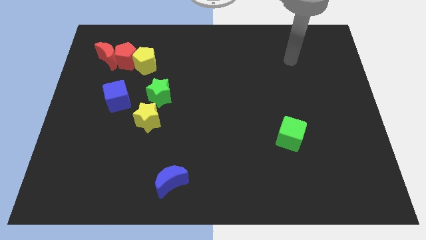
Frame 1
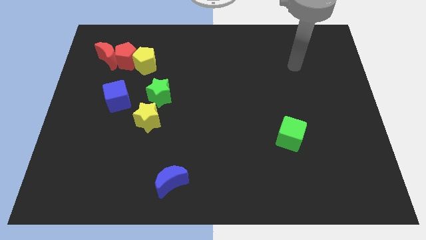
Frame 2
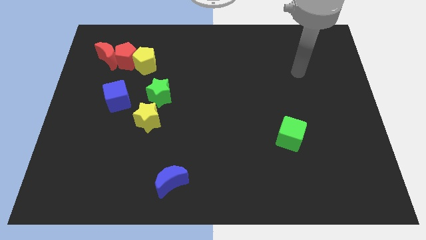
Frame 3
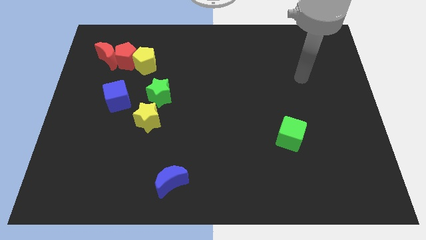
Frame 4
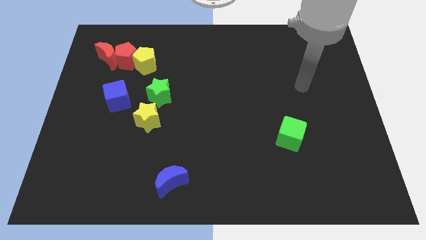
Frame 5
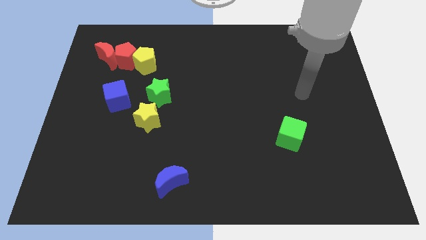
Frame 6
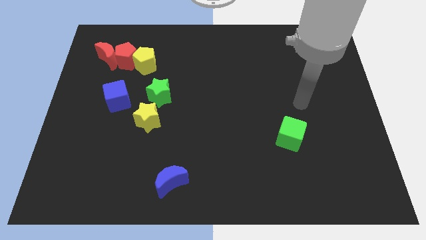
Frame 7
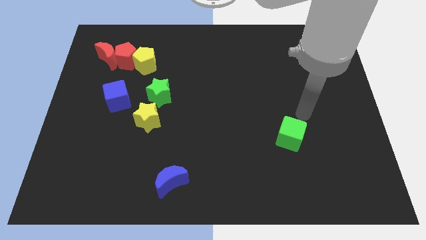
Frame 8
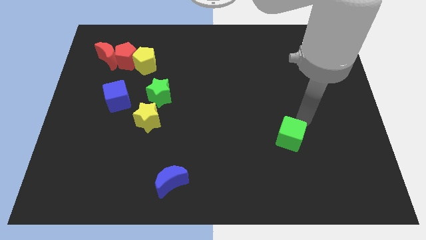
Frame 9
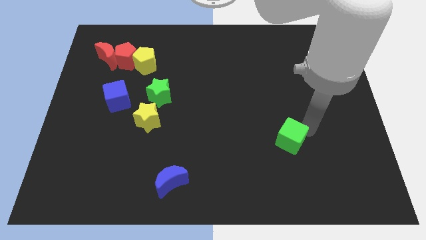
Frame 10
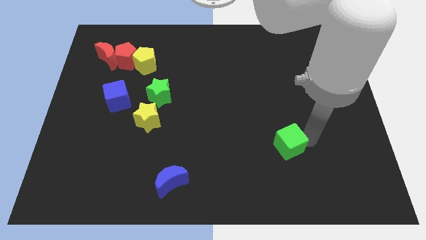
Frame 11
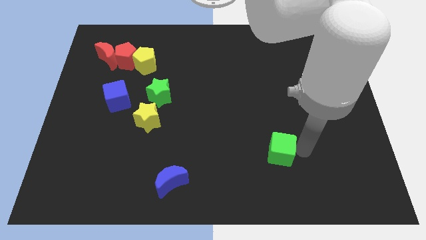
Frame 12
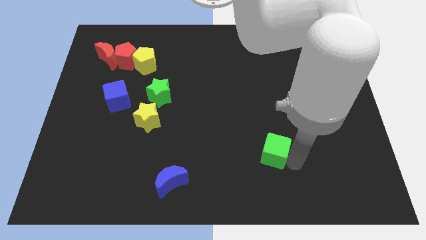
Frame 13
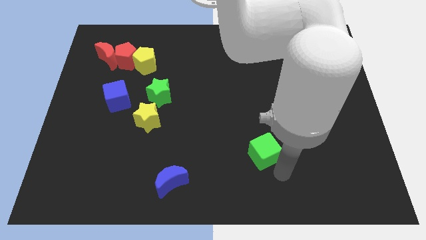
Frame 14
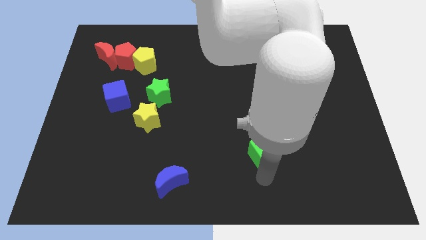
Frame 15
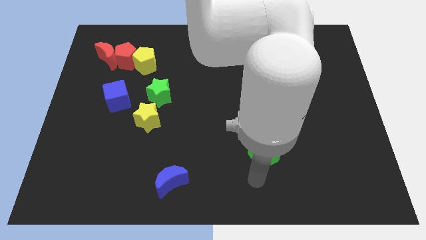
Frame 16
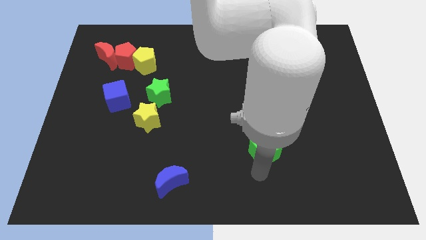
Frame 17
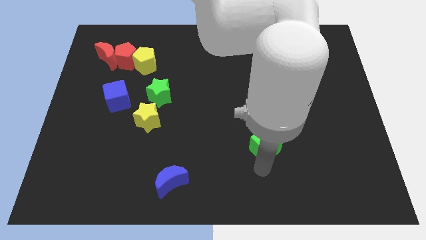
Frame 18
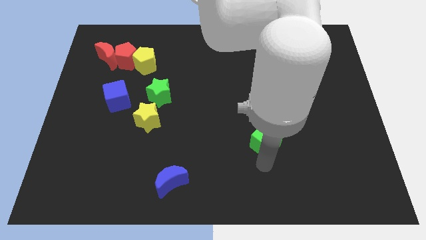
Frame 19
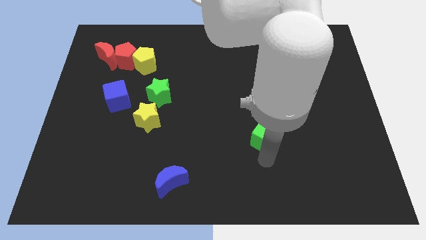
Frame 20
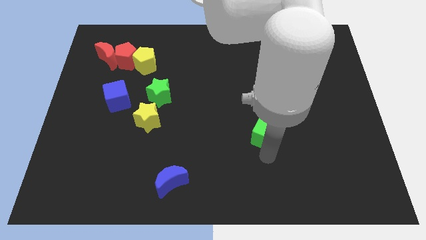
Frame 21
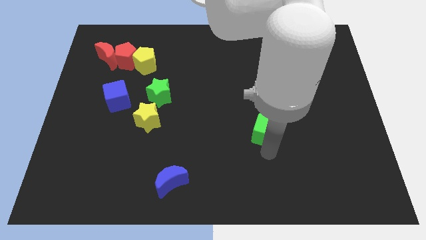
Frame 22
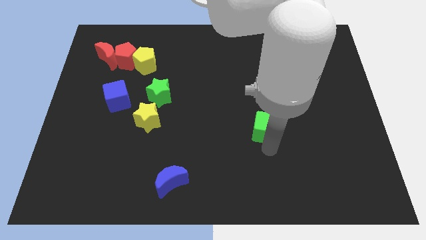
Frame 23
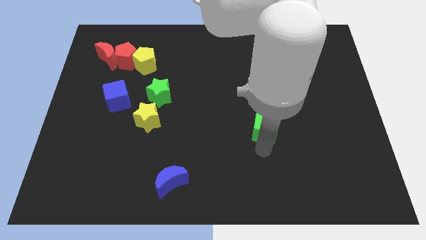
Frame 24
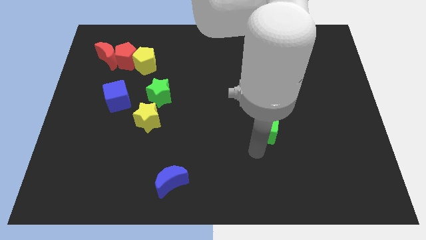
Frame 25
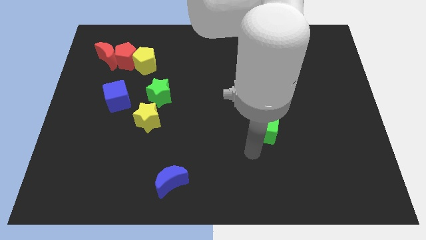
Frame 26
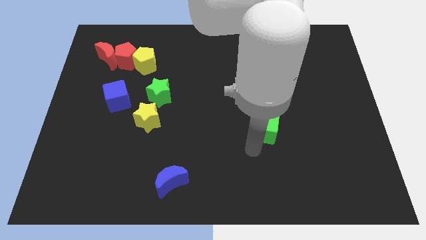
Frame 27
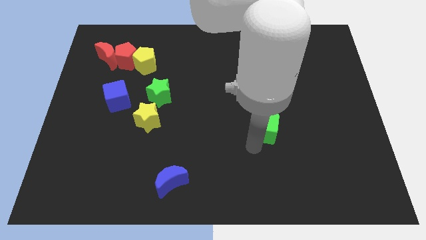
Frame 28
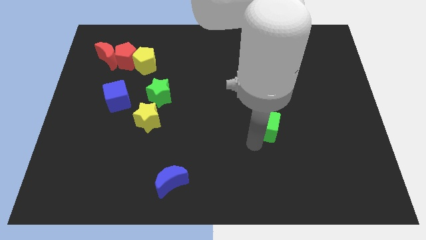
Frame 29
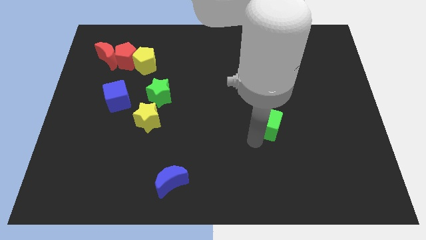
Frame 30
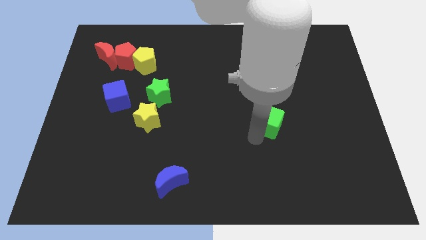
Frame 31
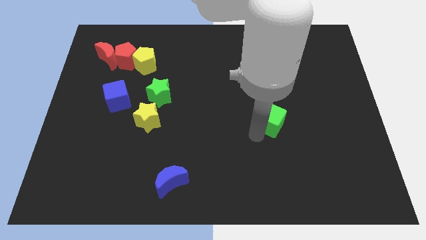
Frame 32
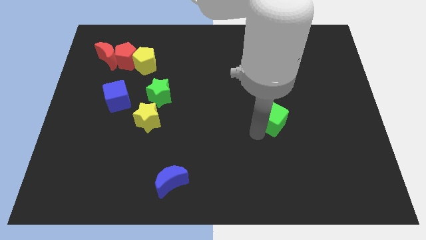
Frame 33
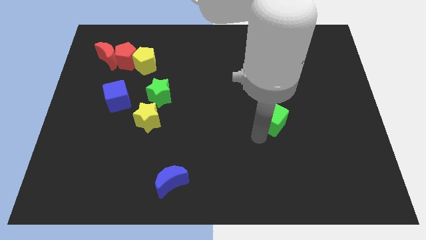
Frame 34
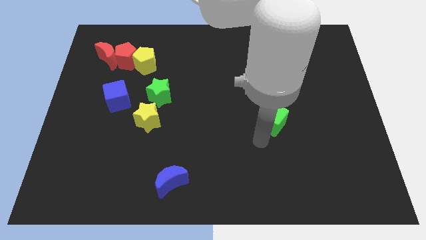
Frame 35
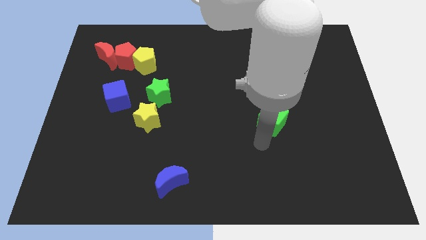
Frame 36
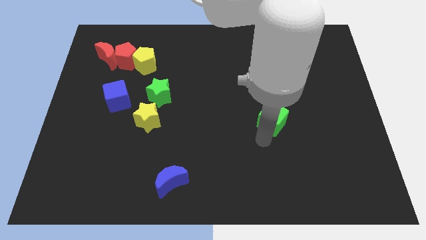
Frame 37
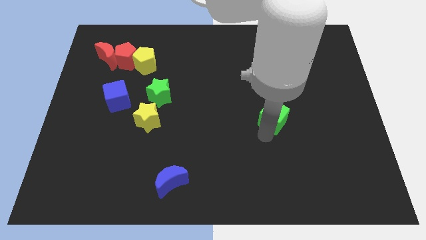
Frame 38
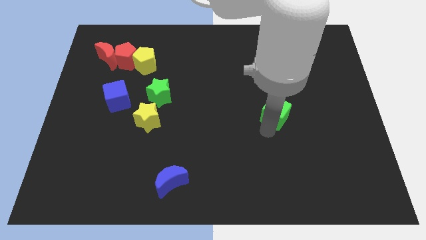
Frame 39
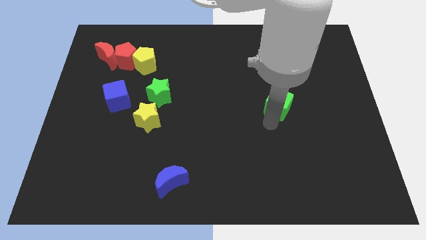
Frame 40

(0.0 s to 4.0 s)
push the green cube somewhat up

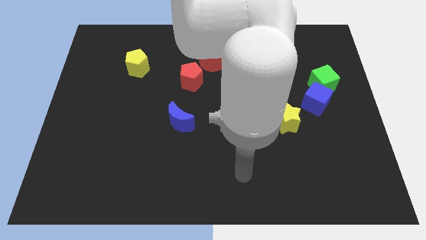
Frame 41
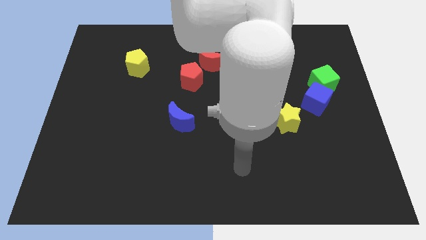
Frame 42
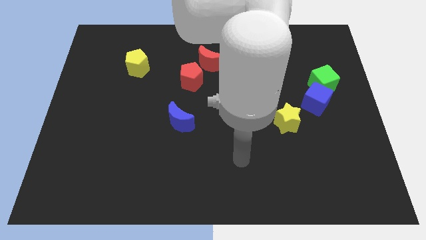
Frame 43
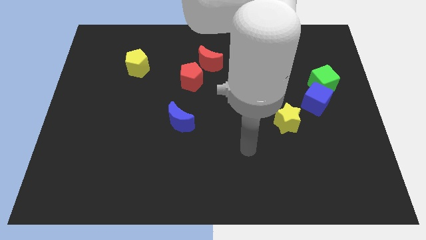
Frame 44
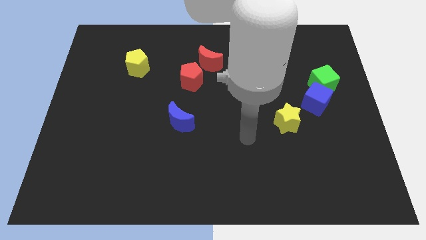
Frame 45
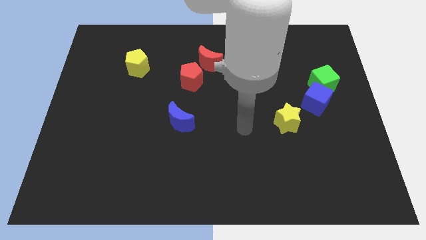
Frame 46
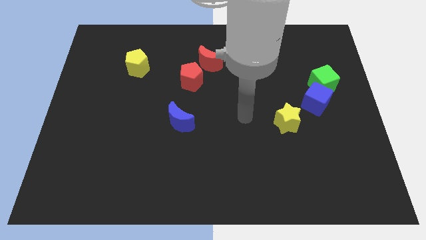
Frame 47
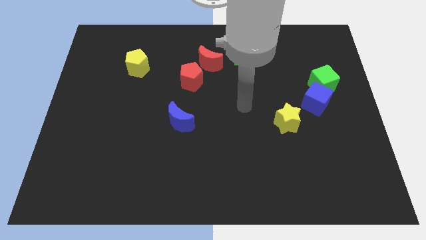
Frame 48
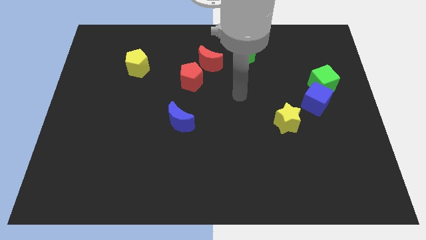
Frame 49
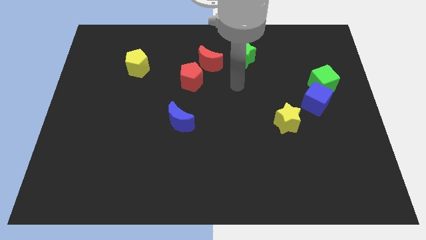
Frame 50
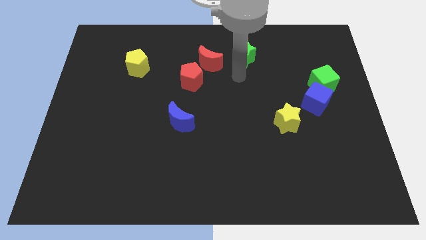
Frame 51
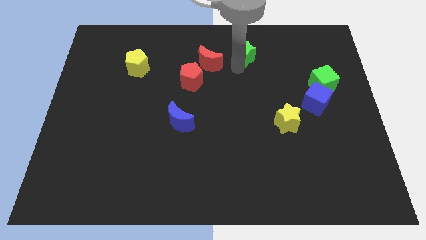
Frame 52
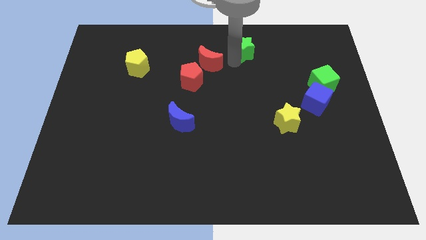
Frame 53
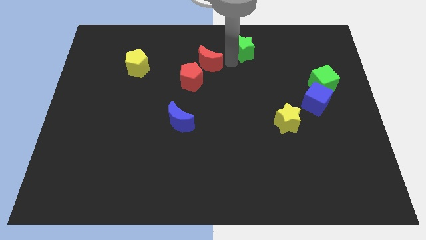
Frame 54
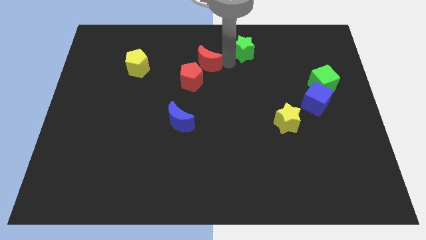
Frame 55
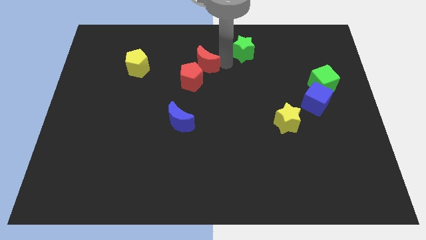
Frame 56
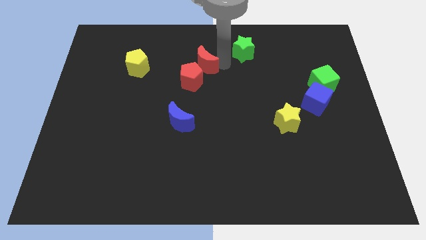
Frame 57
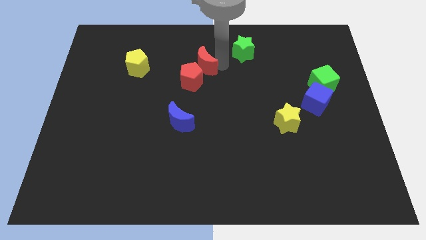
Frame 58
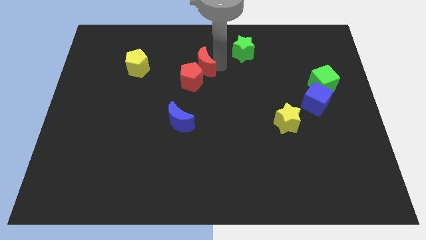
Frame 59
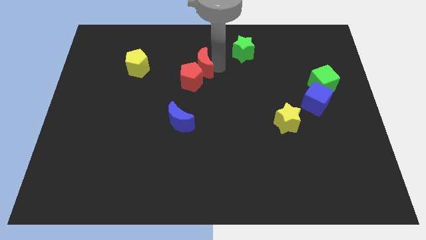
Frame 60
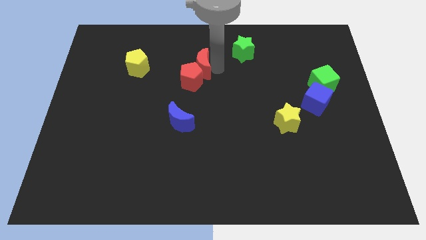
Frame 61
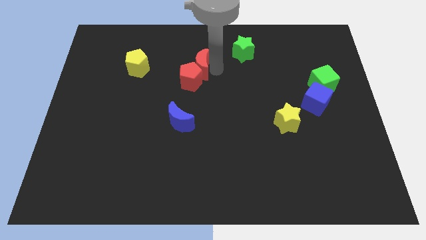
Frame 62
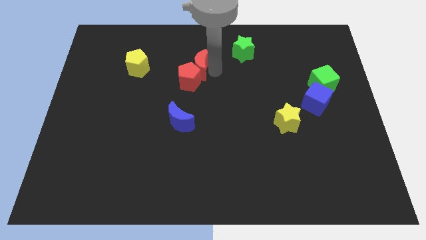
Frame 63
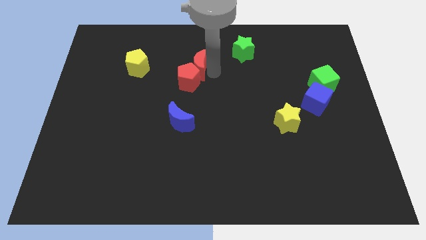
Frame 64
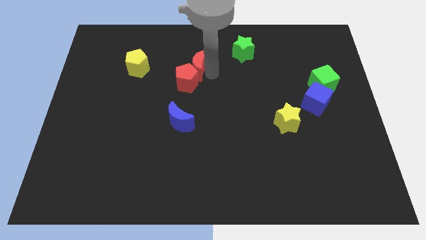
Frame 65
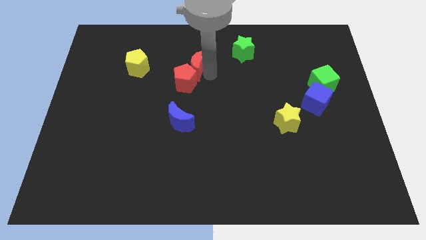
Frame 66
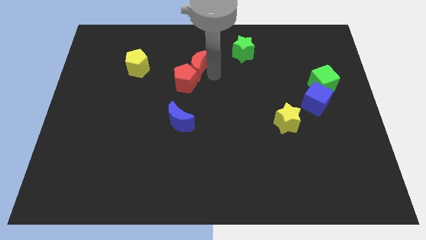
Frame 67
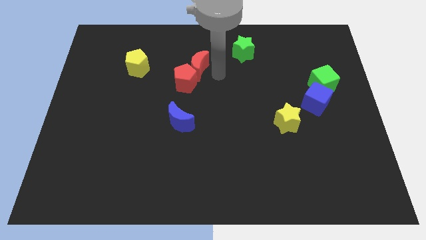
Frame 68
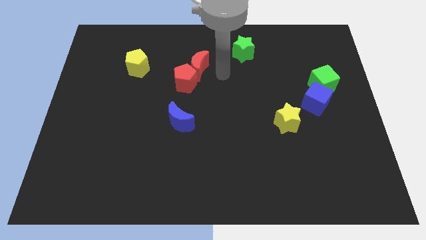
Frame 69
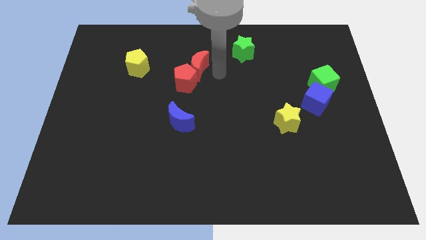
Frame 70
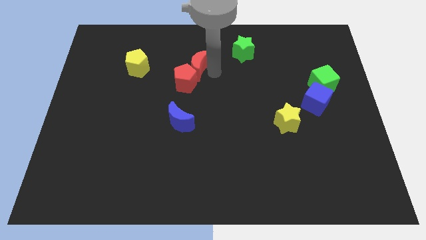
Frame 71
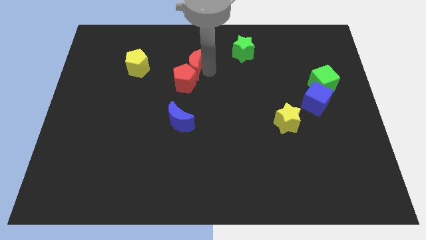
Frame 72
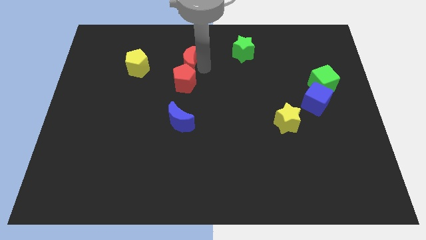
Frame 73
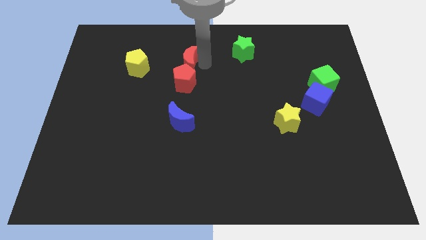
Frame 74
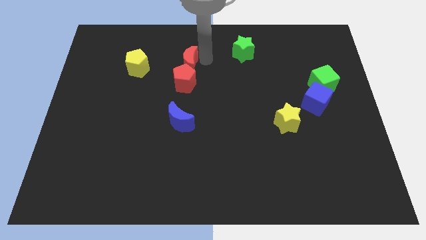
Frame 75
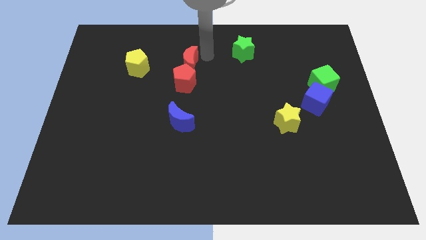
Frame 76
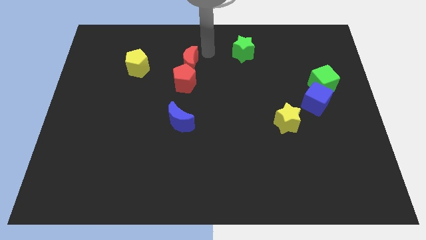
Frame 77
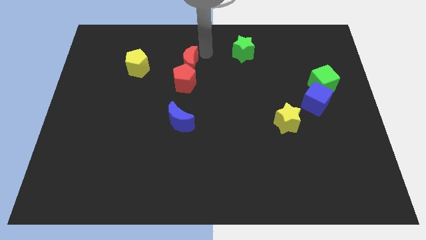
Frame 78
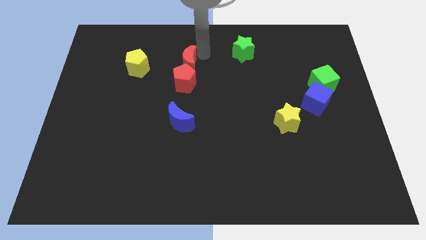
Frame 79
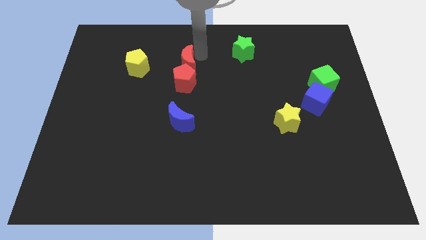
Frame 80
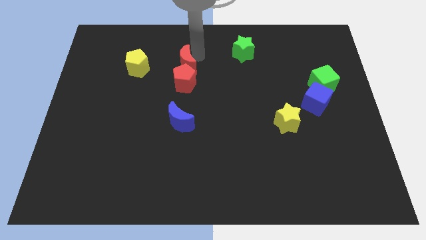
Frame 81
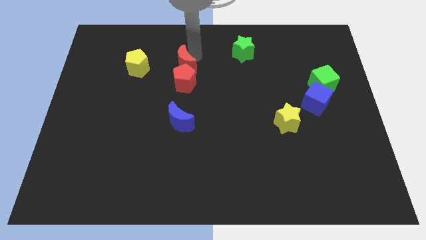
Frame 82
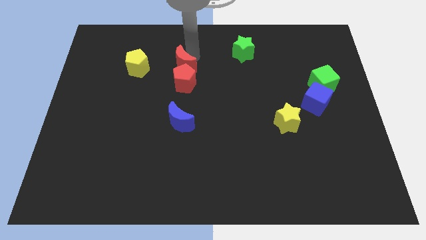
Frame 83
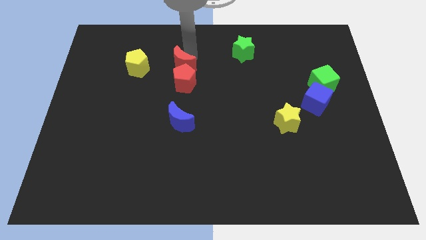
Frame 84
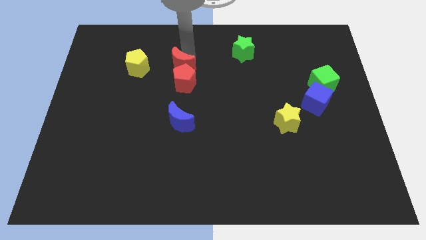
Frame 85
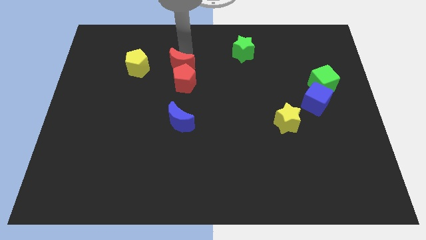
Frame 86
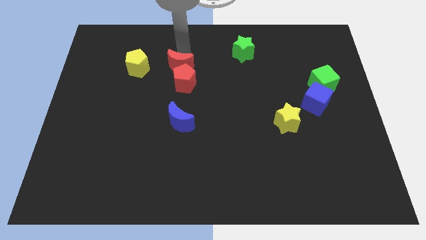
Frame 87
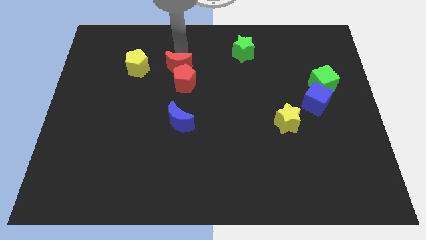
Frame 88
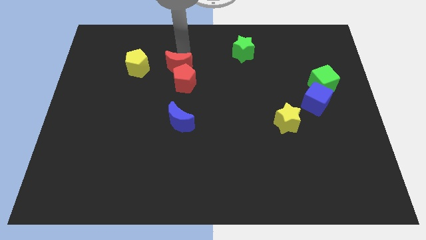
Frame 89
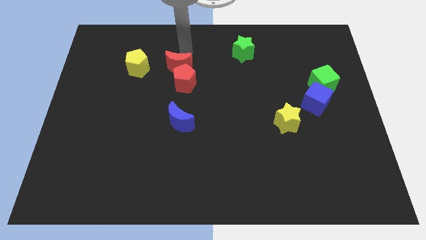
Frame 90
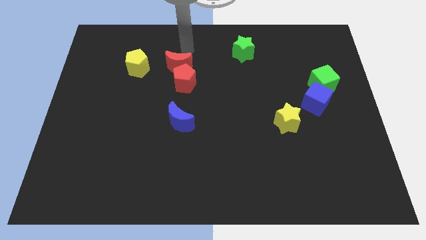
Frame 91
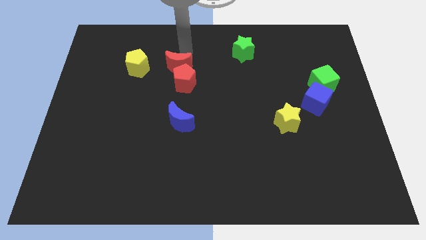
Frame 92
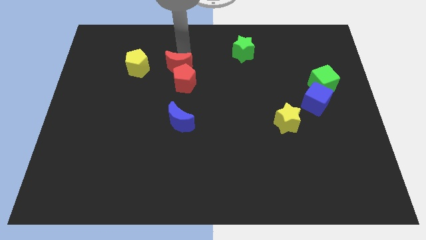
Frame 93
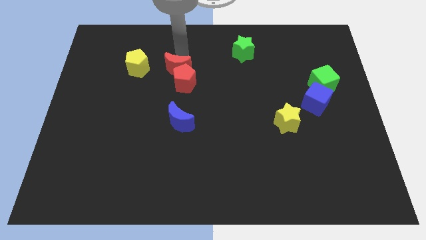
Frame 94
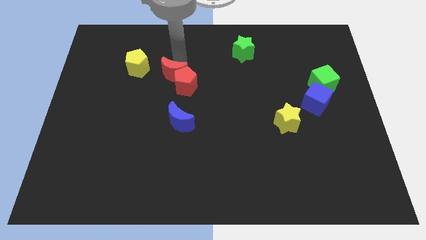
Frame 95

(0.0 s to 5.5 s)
move the red moon a little down and then to the left
